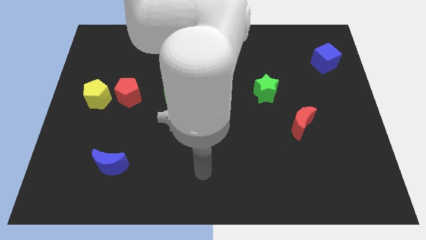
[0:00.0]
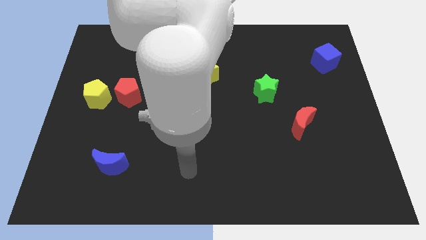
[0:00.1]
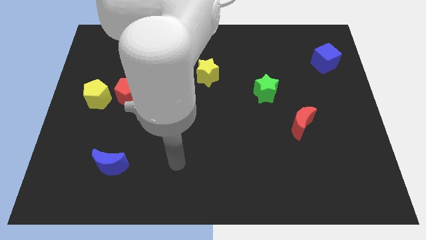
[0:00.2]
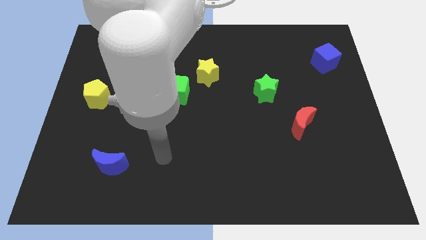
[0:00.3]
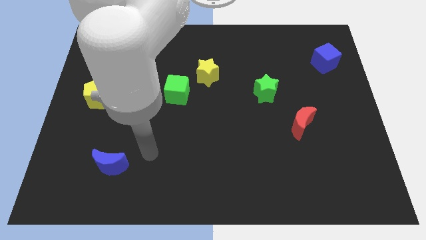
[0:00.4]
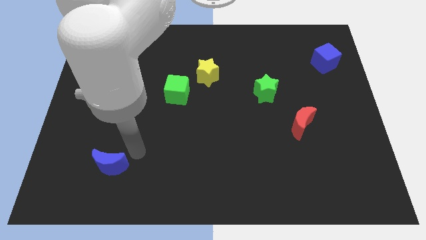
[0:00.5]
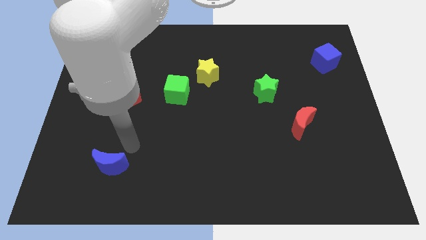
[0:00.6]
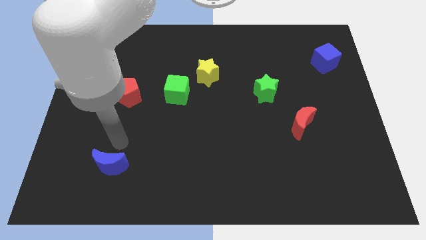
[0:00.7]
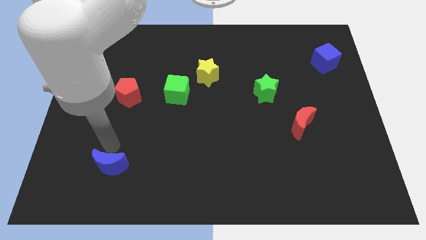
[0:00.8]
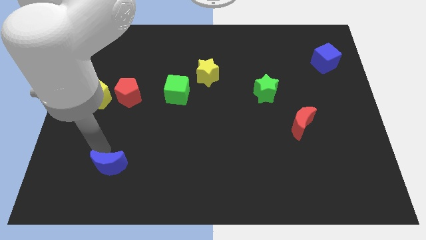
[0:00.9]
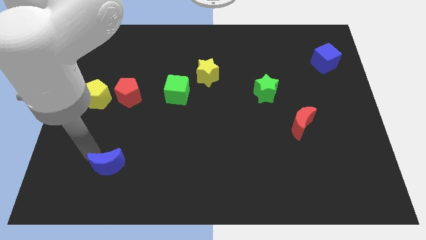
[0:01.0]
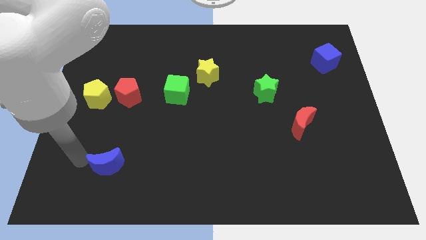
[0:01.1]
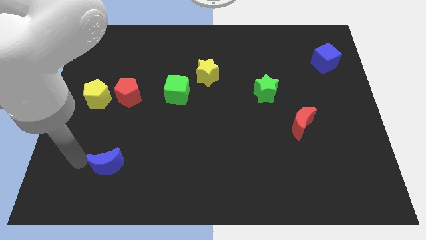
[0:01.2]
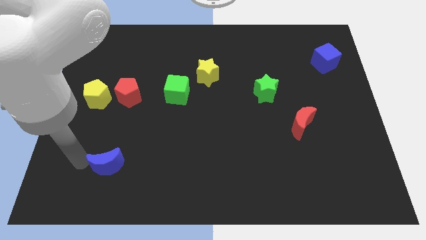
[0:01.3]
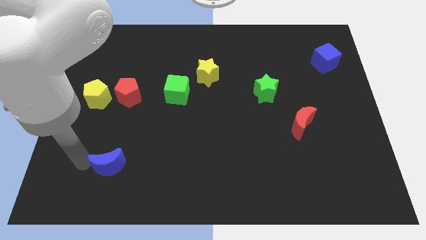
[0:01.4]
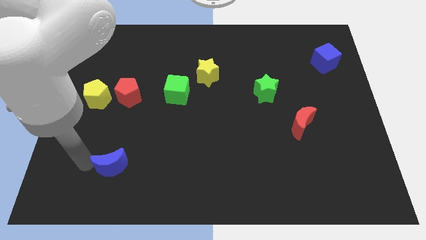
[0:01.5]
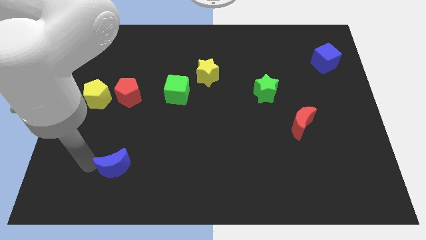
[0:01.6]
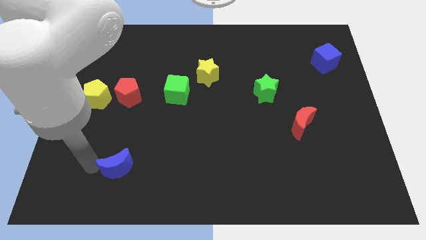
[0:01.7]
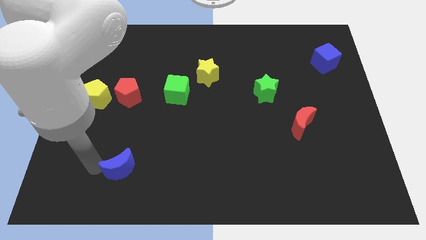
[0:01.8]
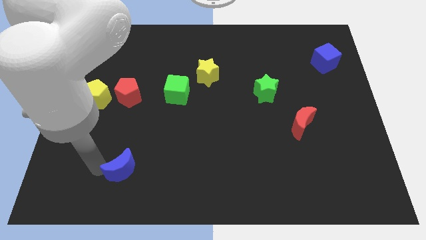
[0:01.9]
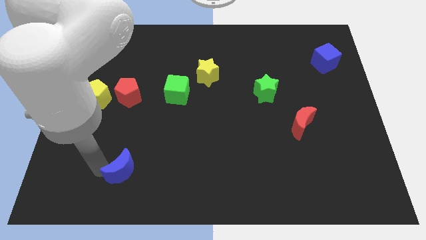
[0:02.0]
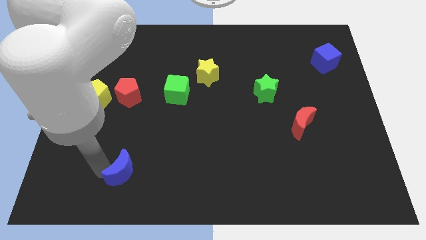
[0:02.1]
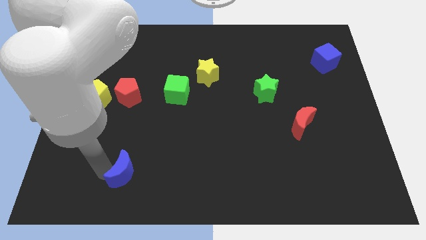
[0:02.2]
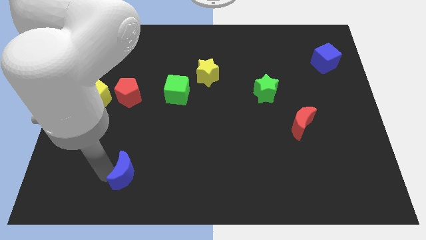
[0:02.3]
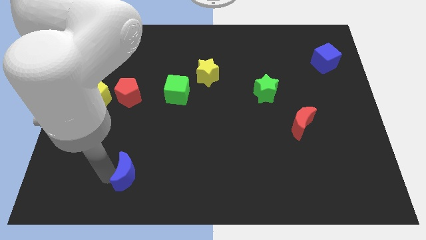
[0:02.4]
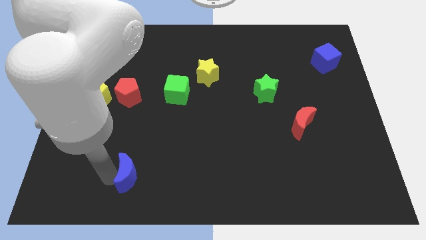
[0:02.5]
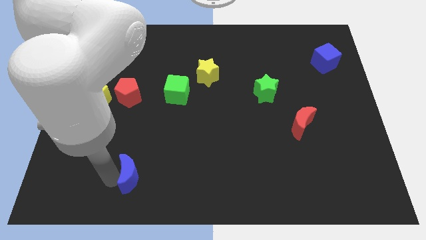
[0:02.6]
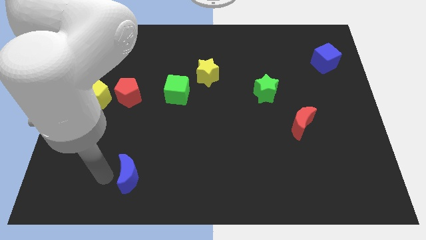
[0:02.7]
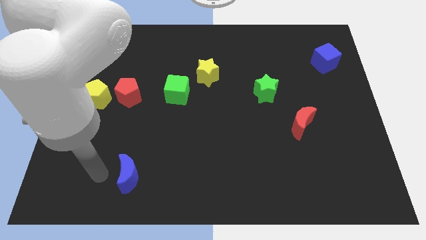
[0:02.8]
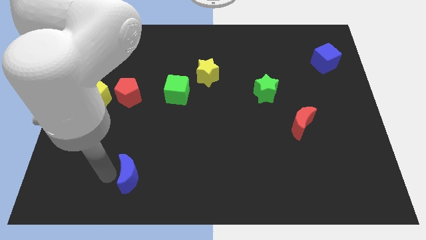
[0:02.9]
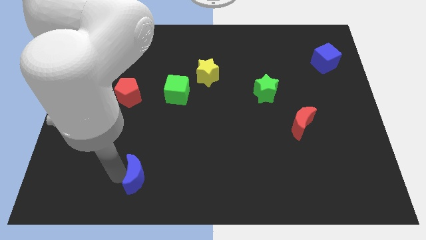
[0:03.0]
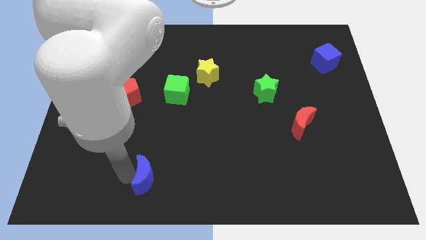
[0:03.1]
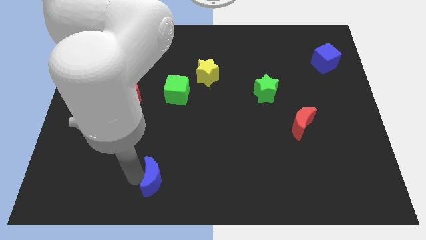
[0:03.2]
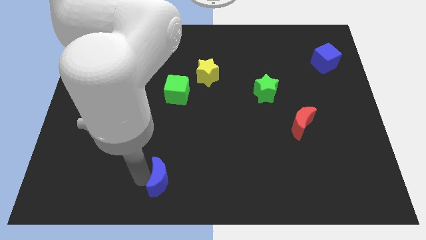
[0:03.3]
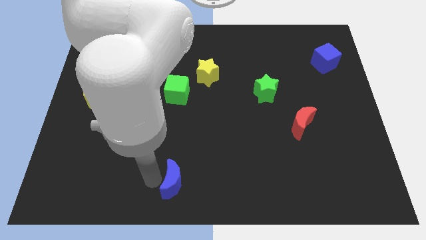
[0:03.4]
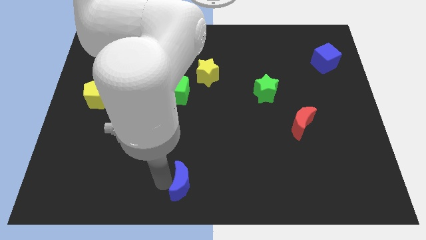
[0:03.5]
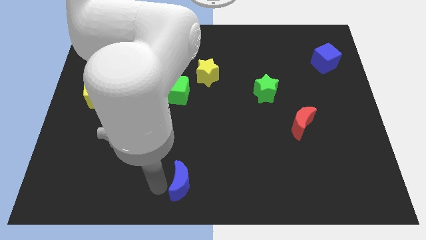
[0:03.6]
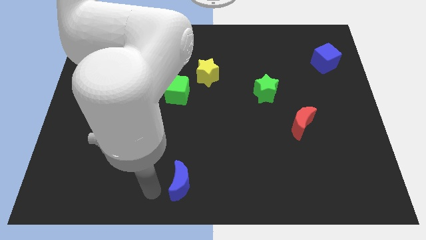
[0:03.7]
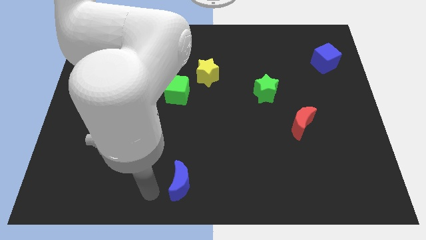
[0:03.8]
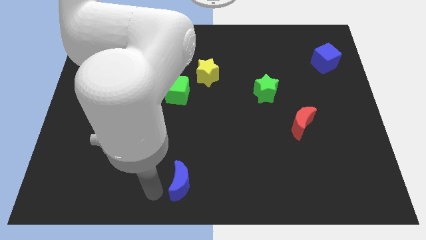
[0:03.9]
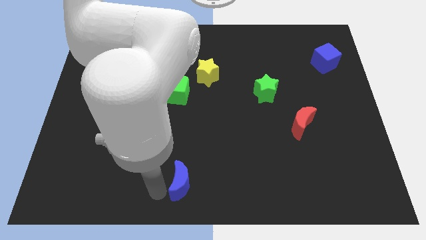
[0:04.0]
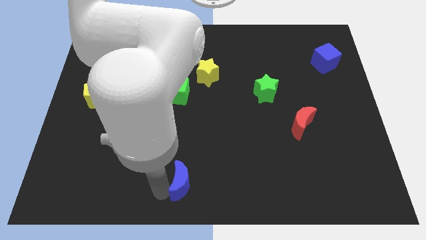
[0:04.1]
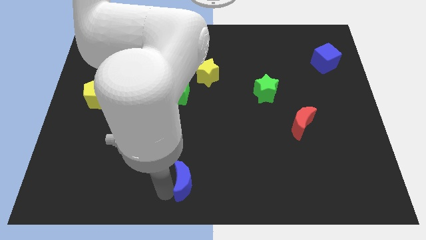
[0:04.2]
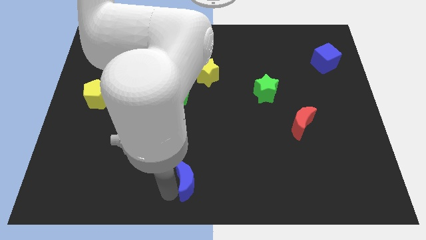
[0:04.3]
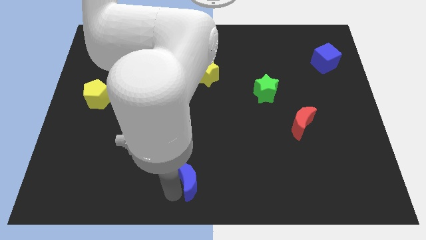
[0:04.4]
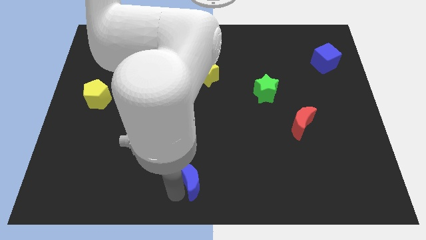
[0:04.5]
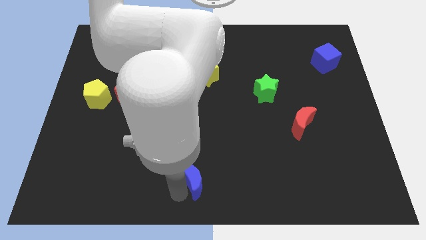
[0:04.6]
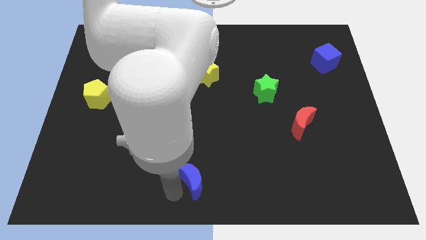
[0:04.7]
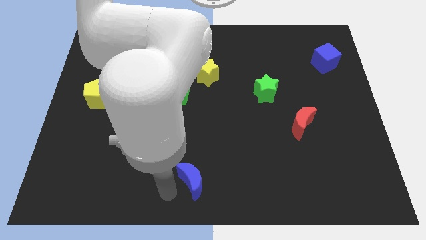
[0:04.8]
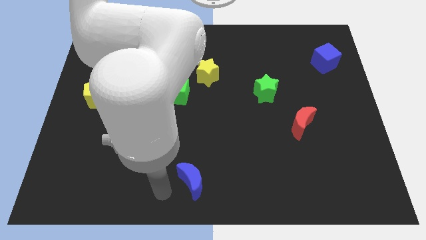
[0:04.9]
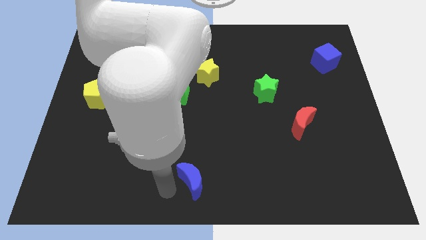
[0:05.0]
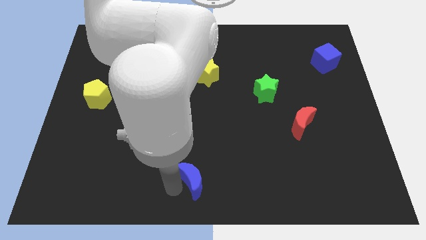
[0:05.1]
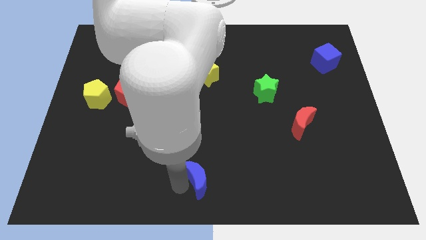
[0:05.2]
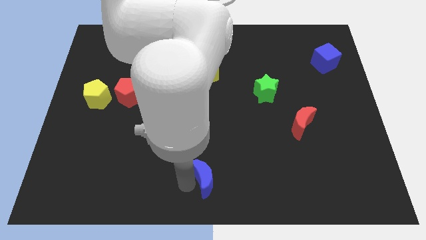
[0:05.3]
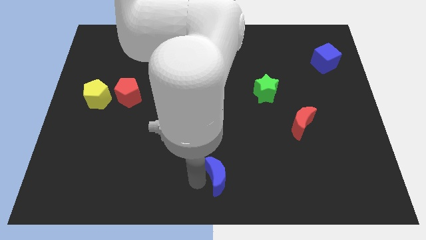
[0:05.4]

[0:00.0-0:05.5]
move the blue moon right

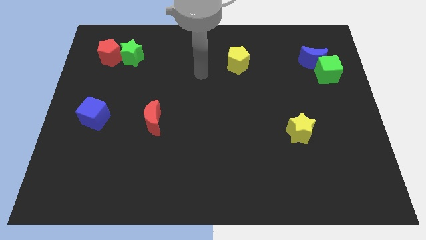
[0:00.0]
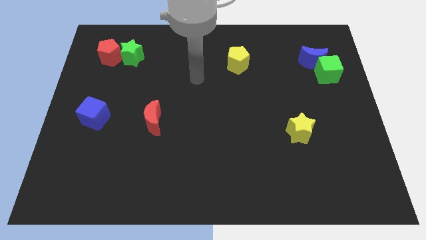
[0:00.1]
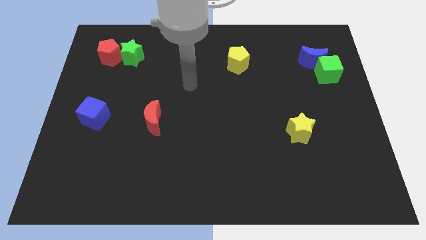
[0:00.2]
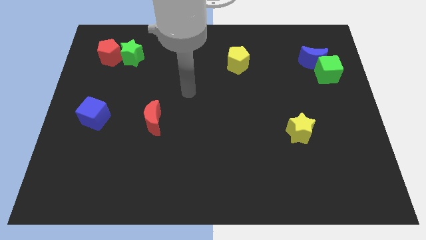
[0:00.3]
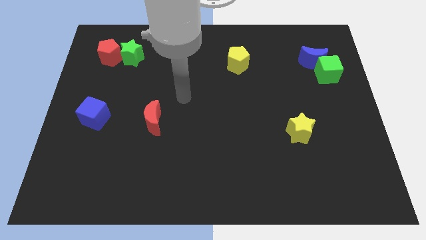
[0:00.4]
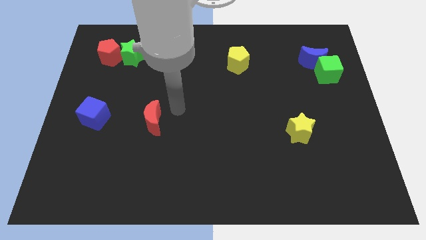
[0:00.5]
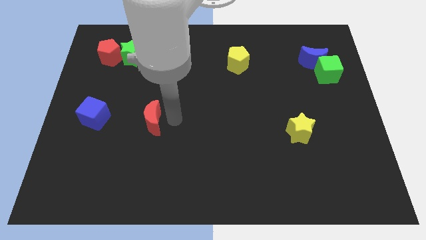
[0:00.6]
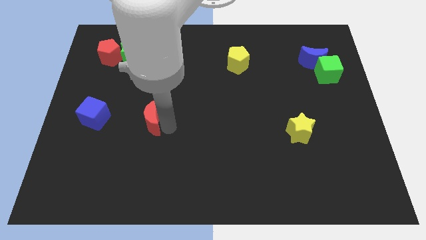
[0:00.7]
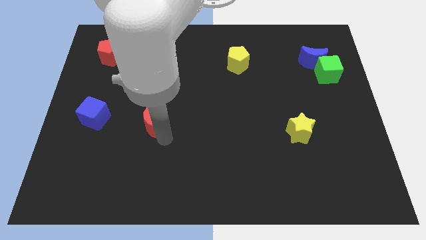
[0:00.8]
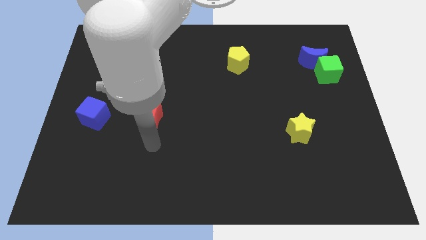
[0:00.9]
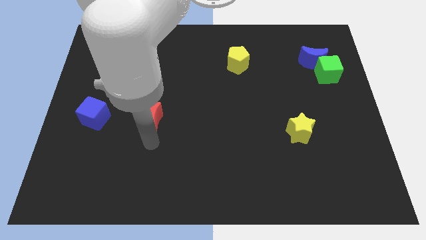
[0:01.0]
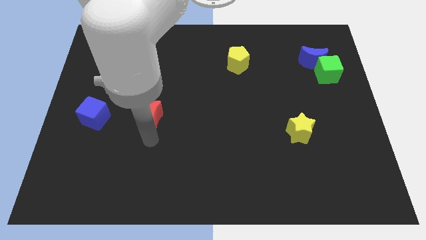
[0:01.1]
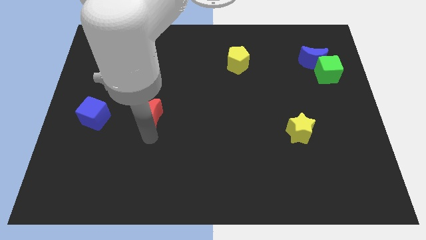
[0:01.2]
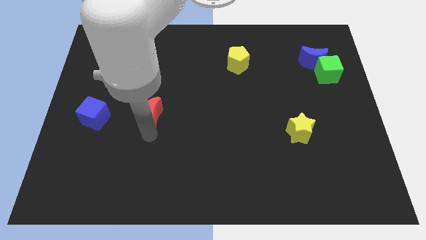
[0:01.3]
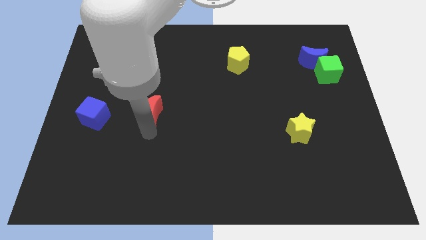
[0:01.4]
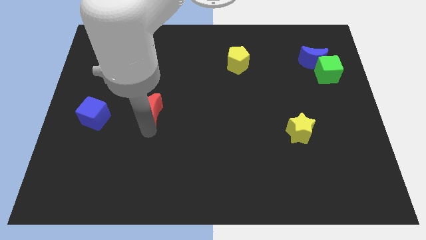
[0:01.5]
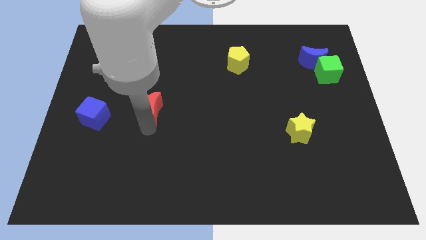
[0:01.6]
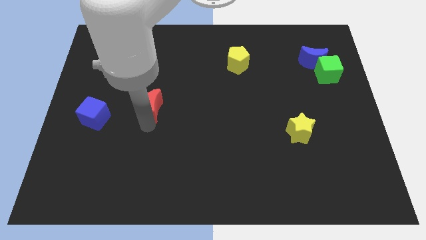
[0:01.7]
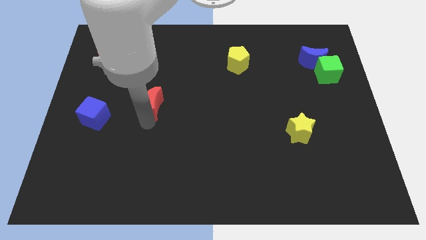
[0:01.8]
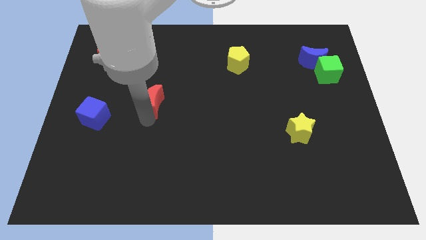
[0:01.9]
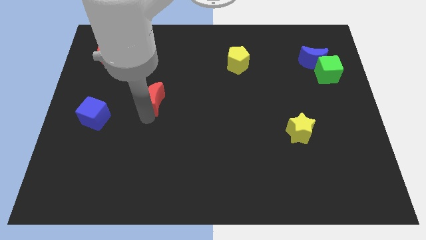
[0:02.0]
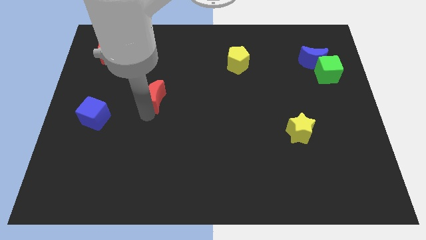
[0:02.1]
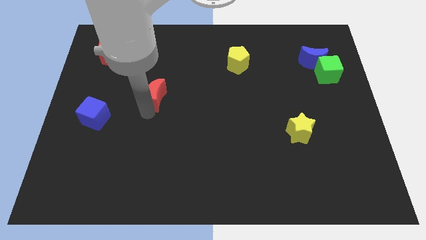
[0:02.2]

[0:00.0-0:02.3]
slide the red moon a little bit up
